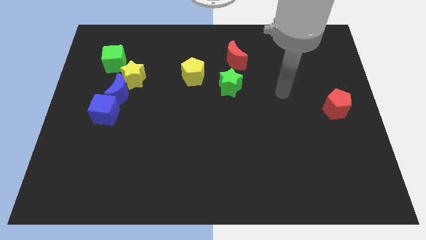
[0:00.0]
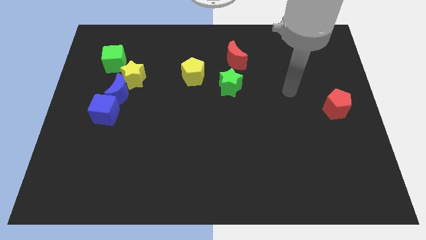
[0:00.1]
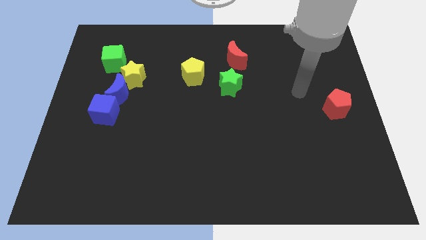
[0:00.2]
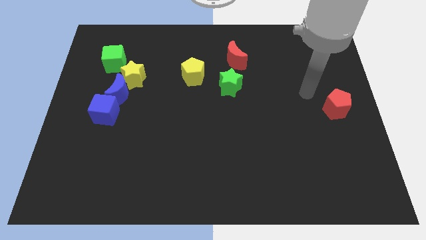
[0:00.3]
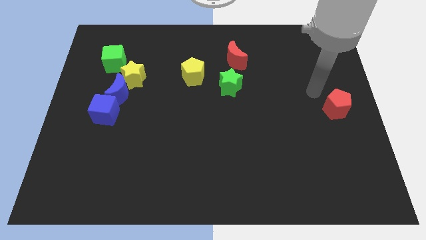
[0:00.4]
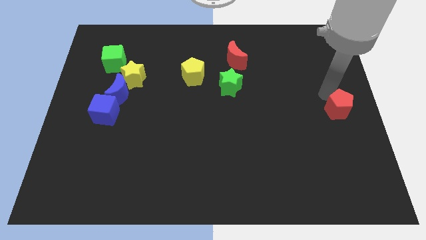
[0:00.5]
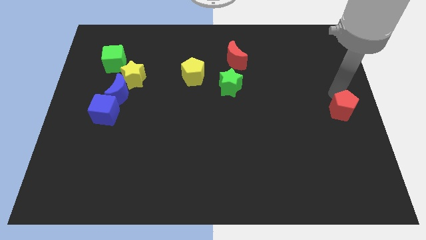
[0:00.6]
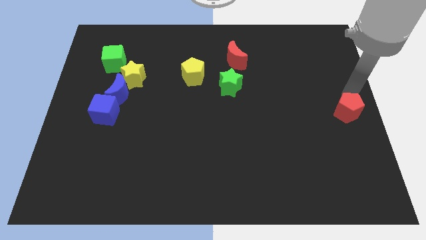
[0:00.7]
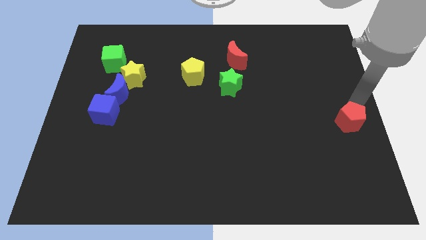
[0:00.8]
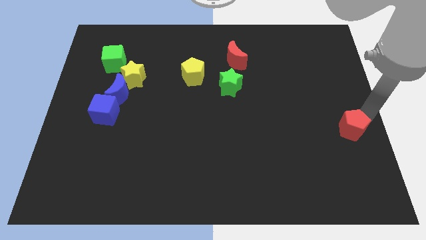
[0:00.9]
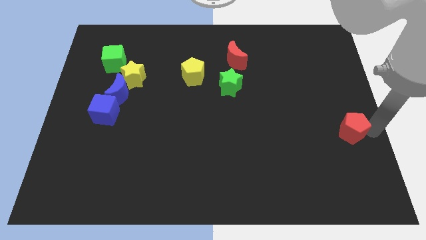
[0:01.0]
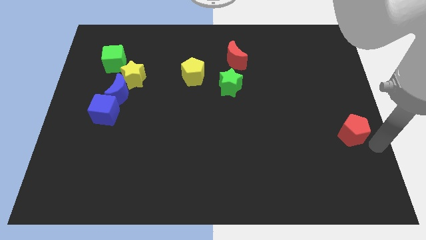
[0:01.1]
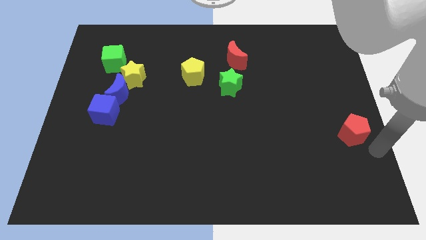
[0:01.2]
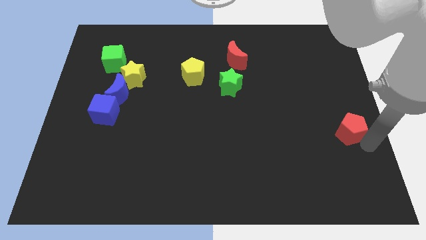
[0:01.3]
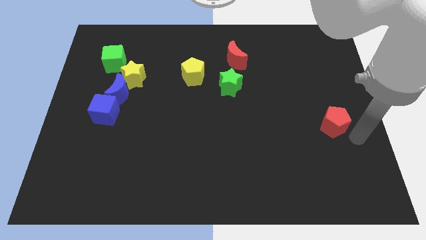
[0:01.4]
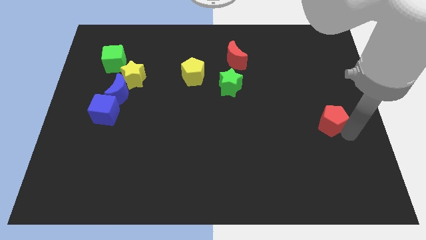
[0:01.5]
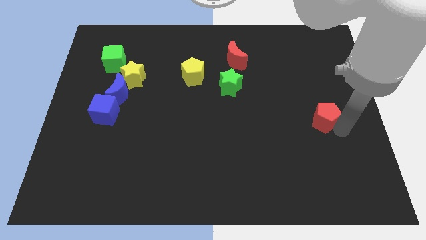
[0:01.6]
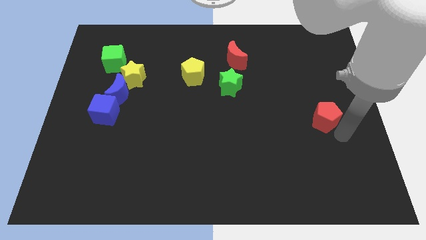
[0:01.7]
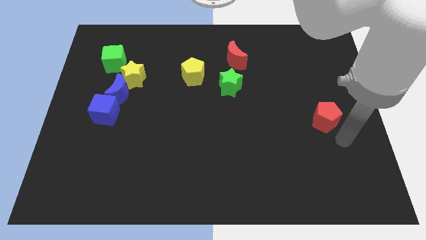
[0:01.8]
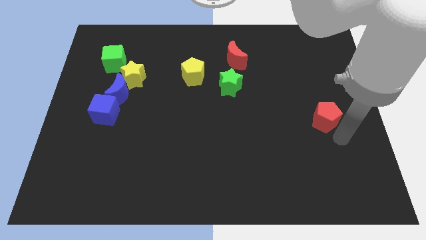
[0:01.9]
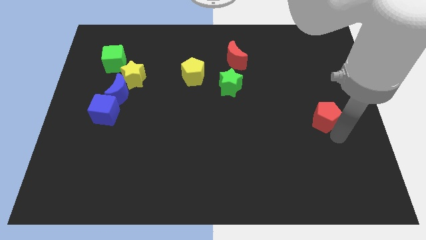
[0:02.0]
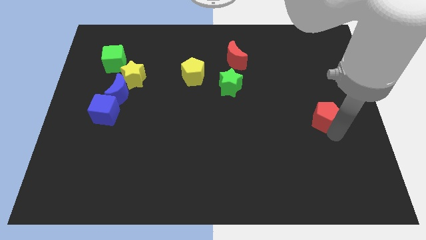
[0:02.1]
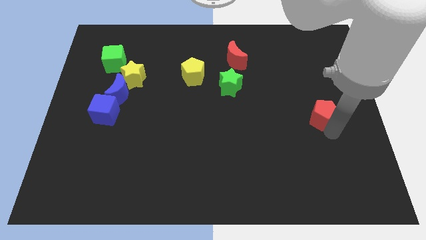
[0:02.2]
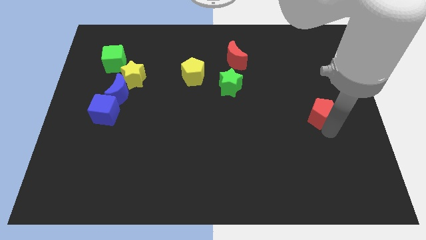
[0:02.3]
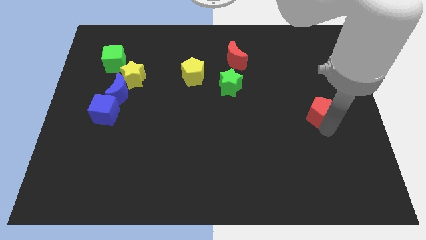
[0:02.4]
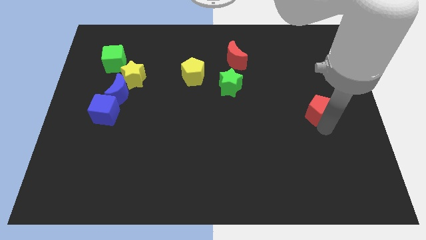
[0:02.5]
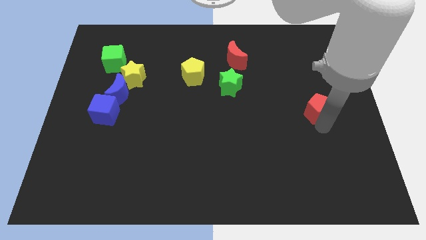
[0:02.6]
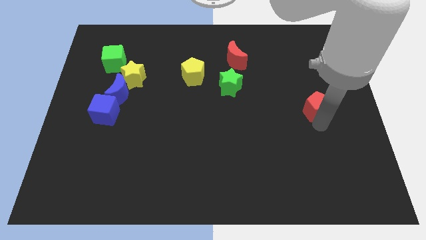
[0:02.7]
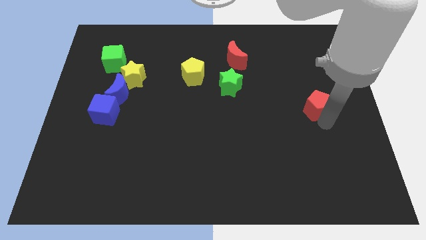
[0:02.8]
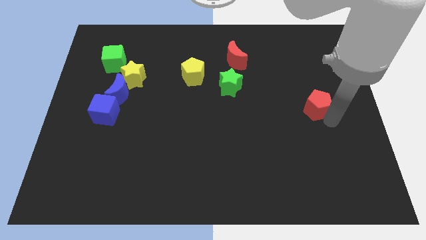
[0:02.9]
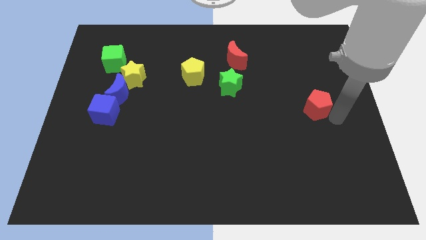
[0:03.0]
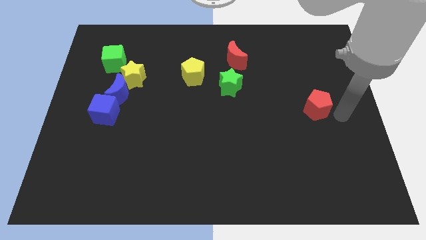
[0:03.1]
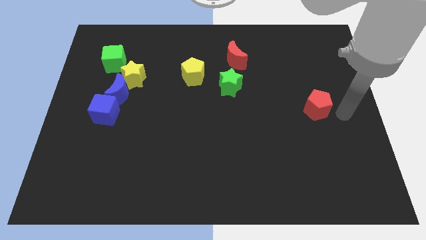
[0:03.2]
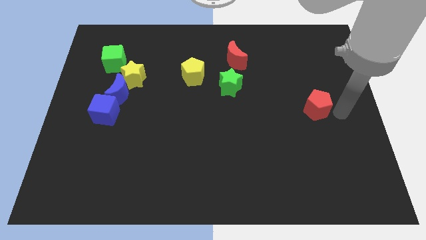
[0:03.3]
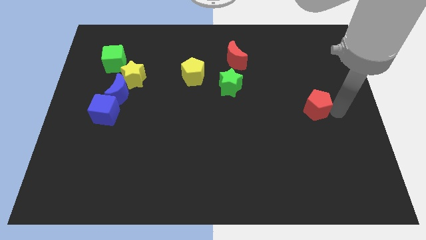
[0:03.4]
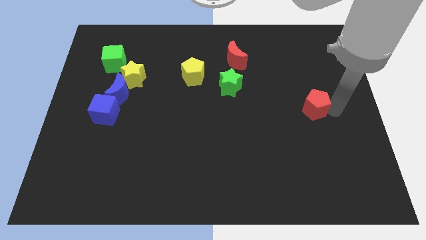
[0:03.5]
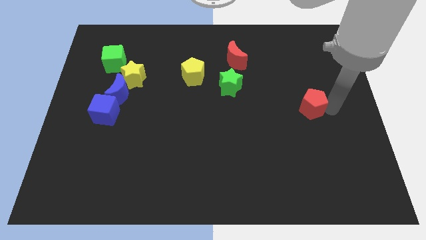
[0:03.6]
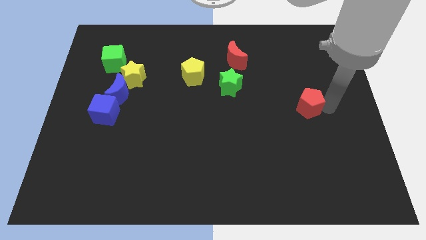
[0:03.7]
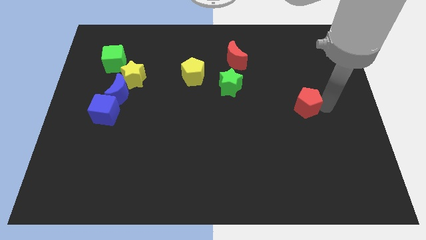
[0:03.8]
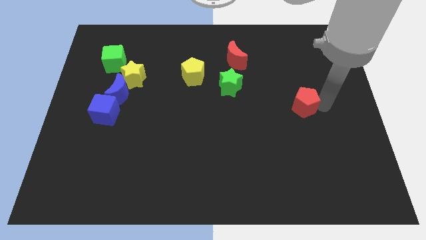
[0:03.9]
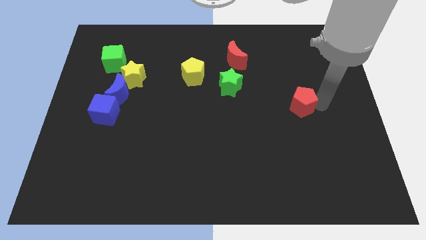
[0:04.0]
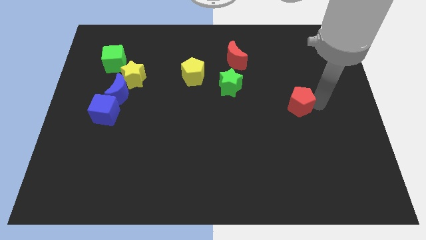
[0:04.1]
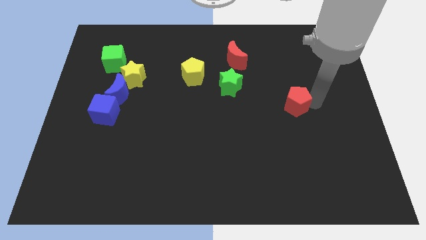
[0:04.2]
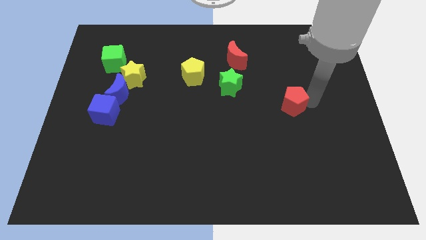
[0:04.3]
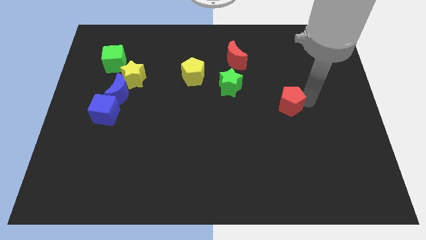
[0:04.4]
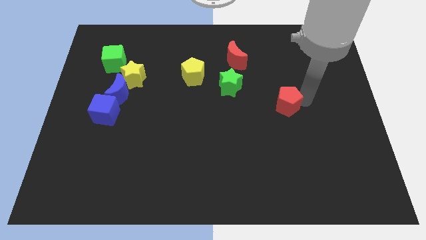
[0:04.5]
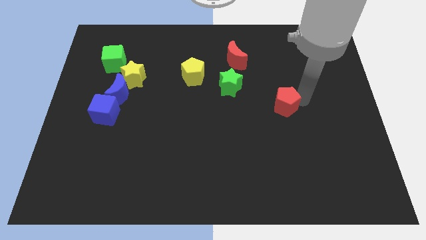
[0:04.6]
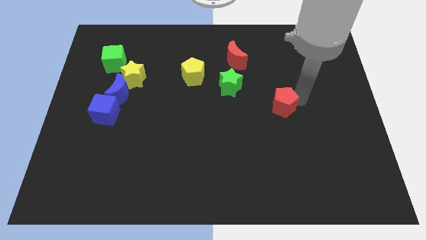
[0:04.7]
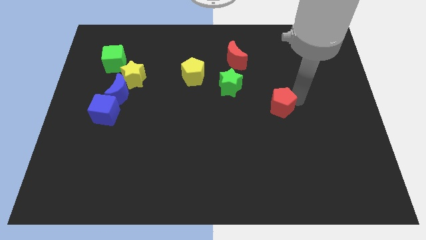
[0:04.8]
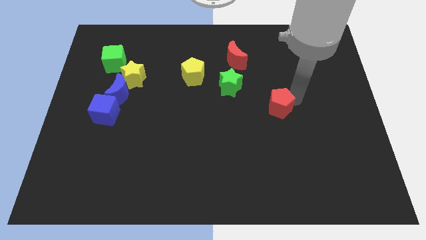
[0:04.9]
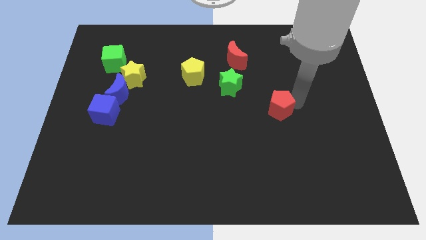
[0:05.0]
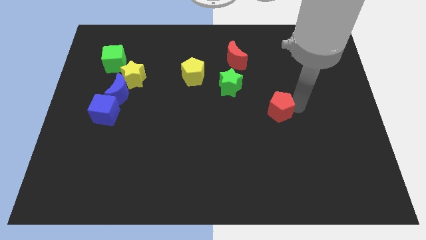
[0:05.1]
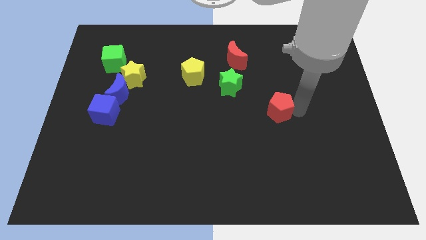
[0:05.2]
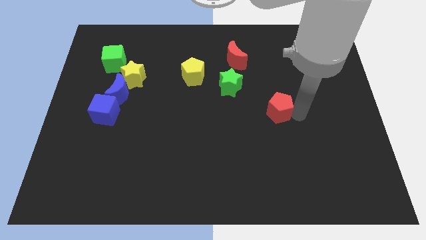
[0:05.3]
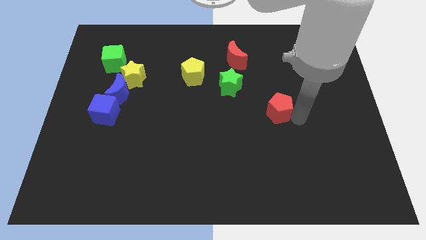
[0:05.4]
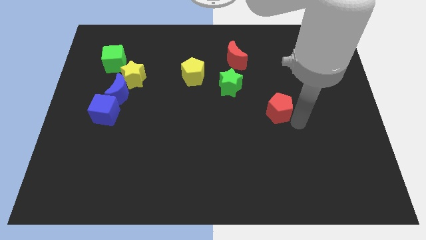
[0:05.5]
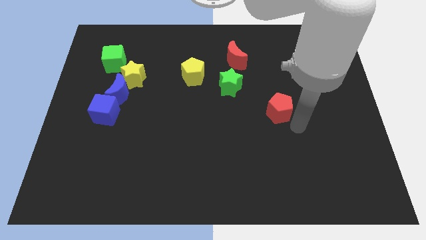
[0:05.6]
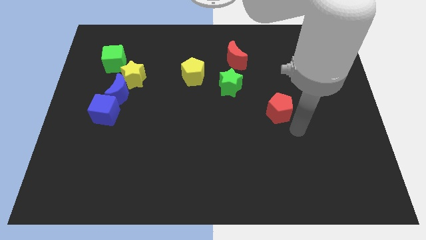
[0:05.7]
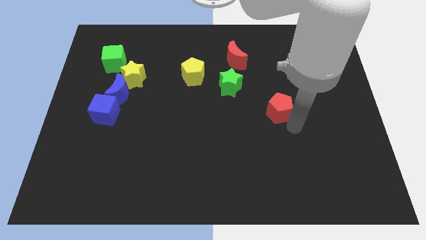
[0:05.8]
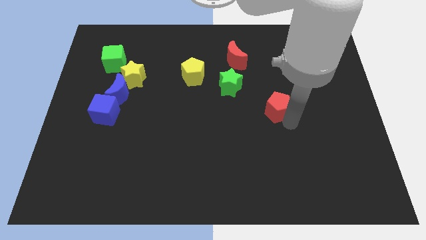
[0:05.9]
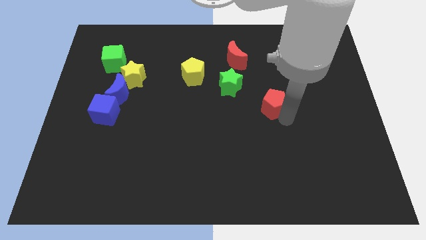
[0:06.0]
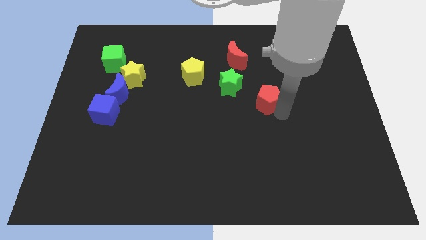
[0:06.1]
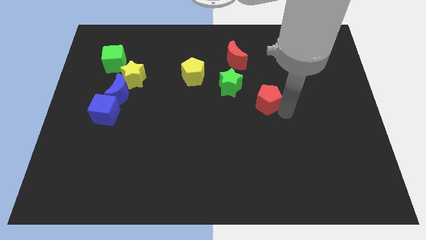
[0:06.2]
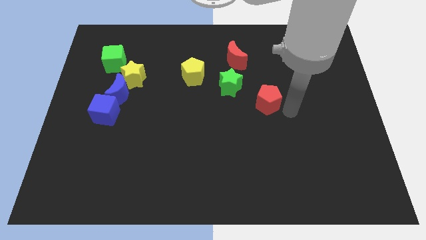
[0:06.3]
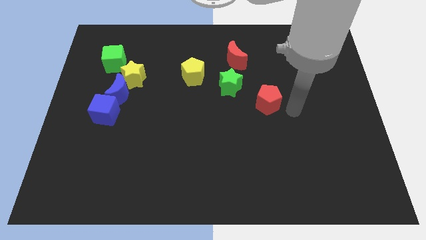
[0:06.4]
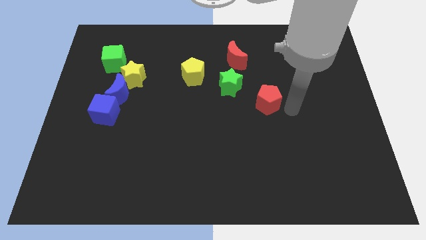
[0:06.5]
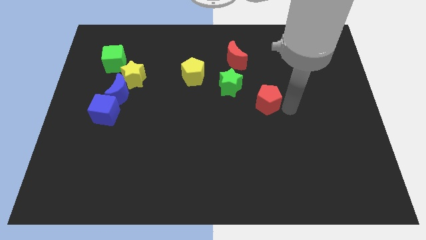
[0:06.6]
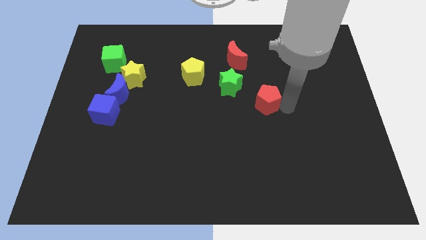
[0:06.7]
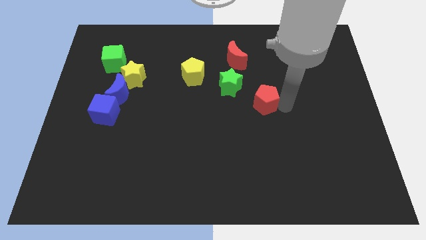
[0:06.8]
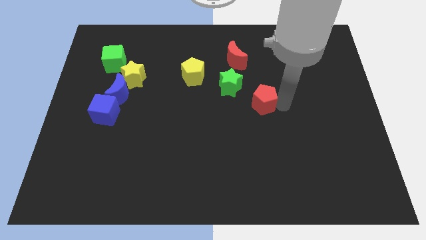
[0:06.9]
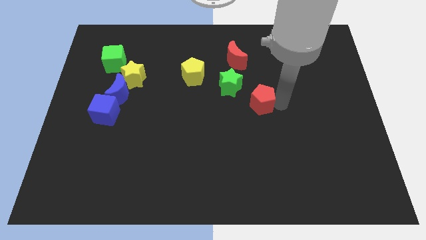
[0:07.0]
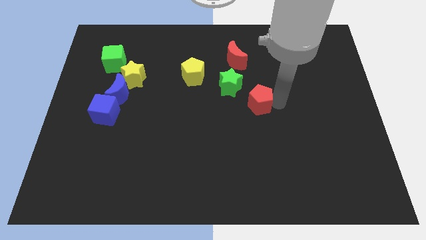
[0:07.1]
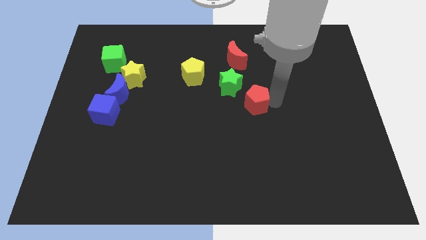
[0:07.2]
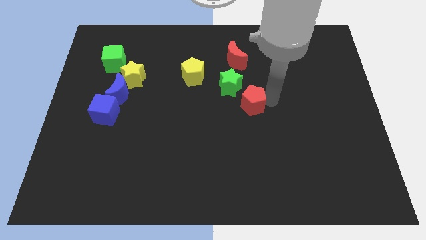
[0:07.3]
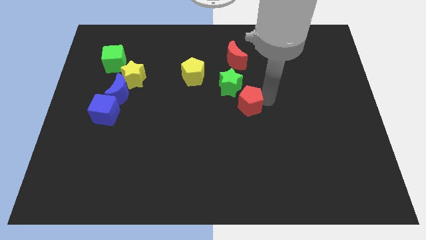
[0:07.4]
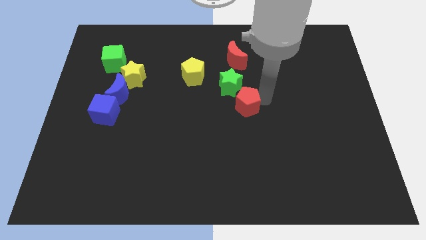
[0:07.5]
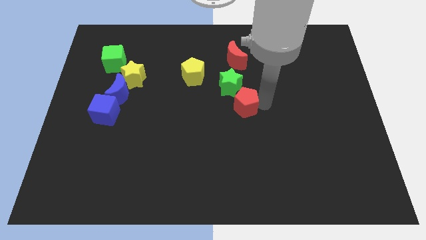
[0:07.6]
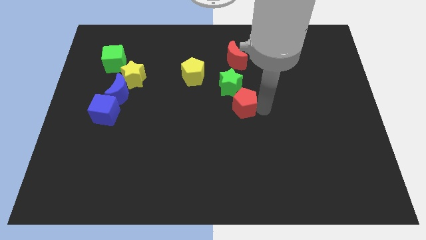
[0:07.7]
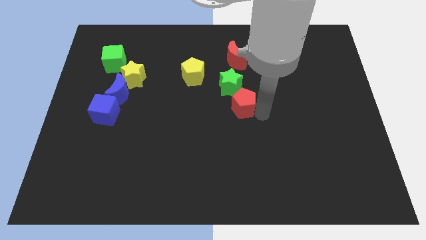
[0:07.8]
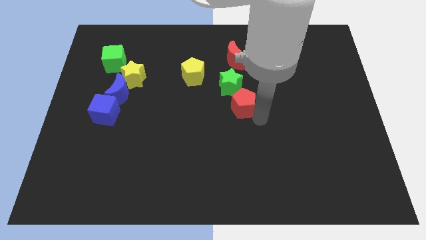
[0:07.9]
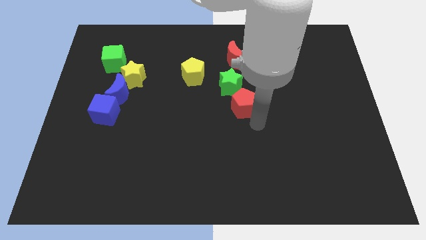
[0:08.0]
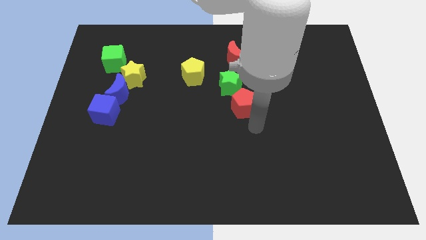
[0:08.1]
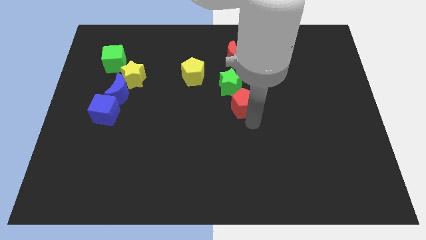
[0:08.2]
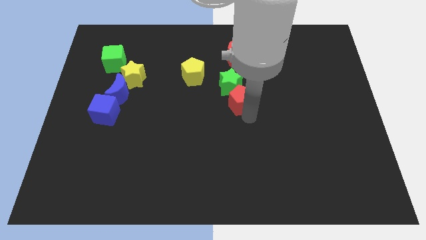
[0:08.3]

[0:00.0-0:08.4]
move the red pentagon close to the green star
